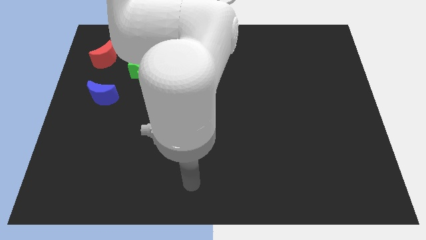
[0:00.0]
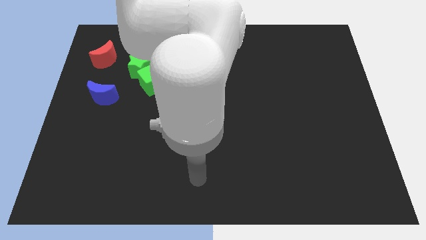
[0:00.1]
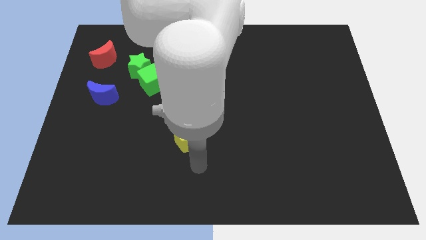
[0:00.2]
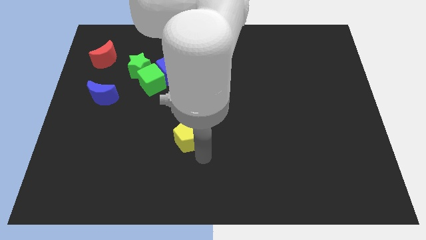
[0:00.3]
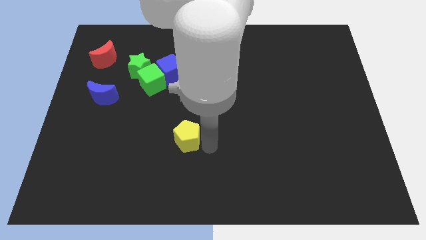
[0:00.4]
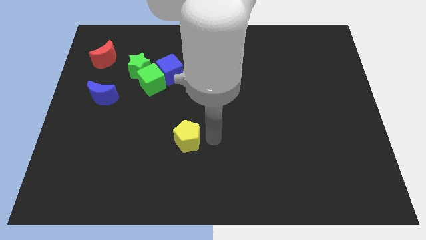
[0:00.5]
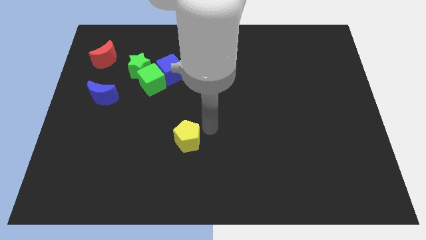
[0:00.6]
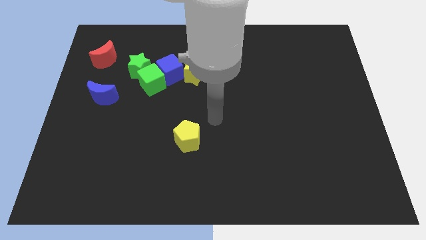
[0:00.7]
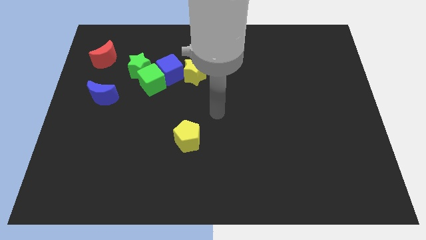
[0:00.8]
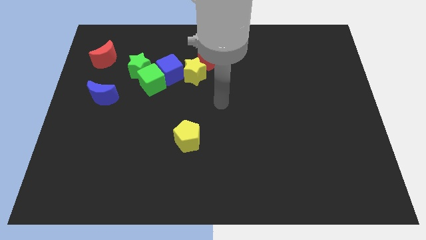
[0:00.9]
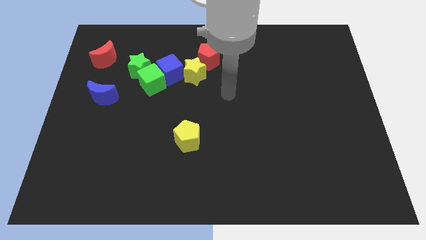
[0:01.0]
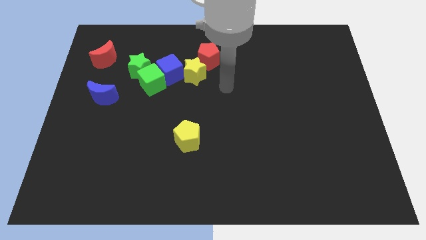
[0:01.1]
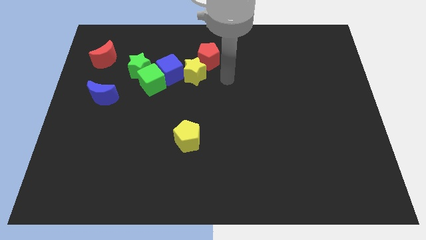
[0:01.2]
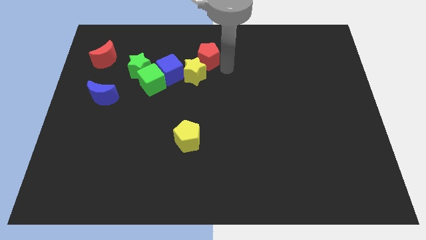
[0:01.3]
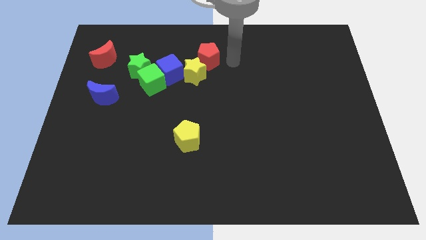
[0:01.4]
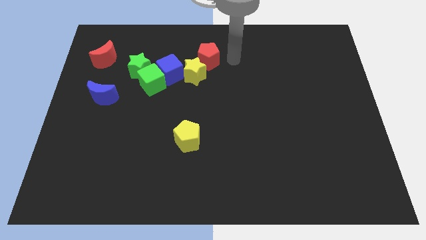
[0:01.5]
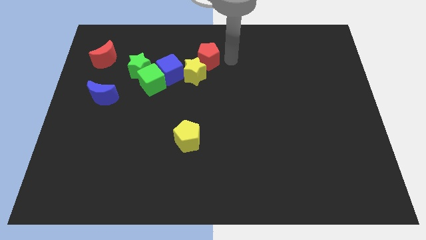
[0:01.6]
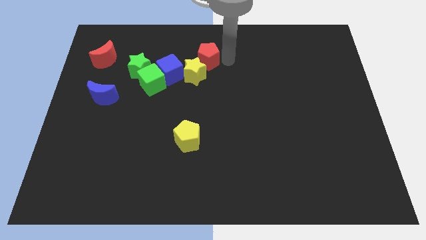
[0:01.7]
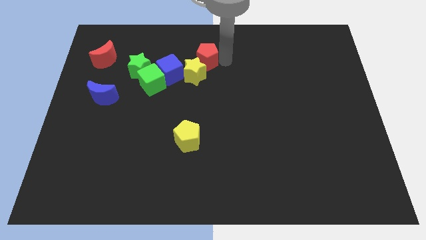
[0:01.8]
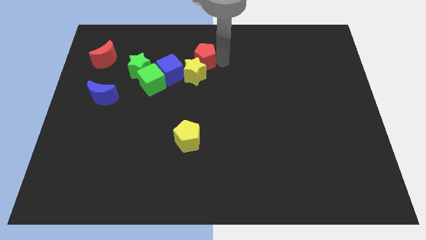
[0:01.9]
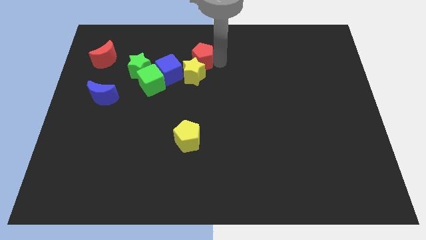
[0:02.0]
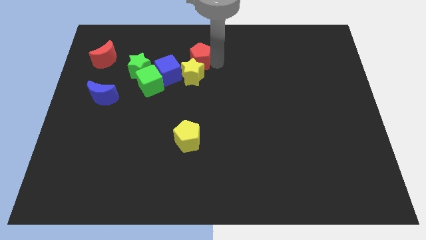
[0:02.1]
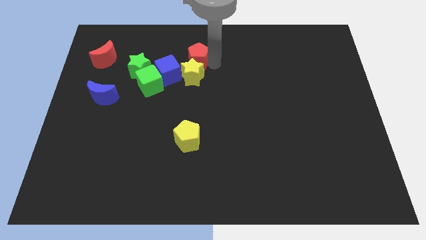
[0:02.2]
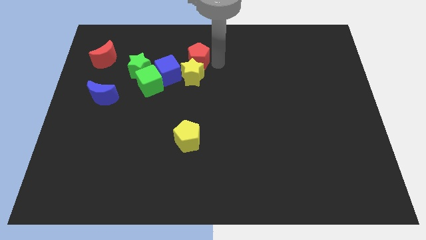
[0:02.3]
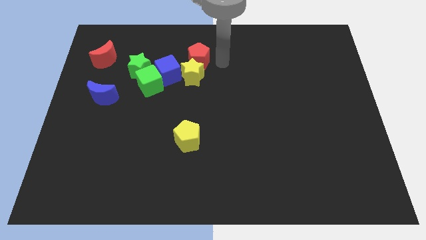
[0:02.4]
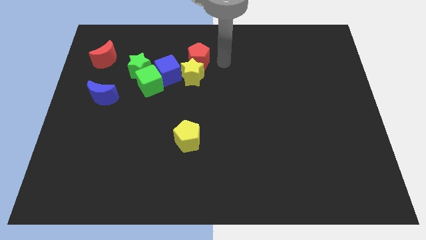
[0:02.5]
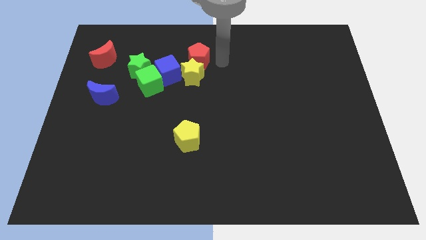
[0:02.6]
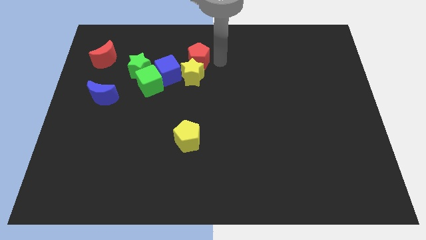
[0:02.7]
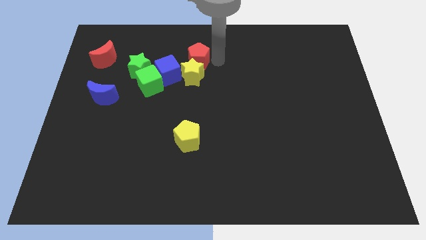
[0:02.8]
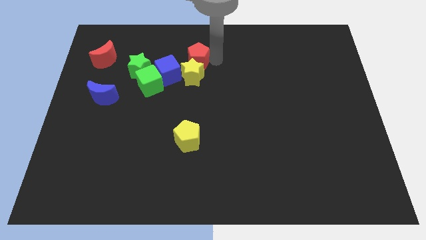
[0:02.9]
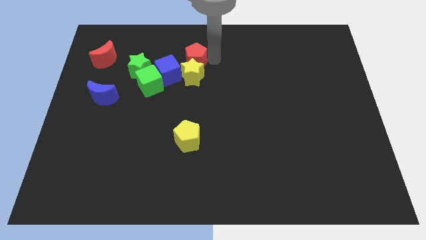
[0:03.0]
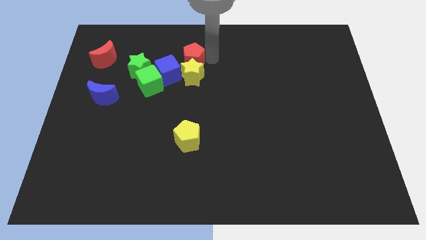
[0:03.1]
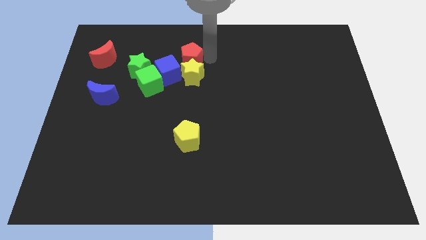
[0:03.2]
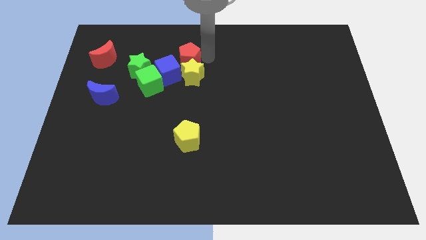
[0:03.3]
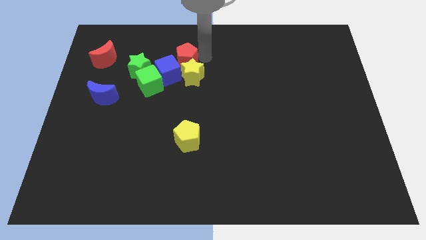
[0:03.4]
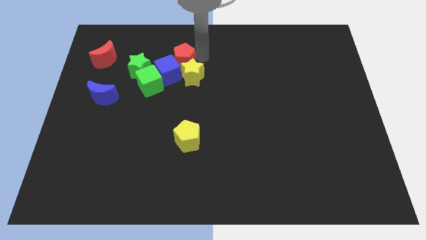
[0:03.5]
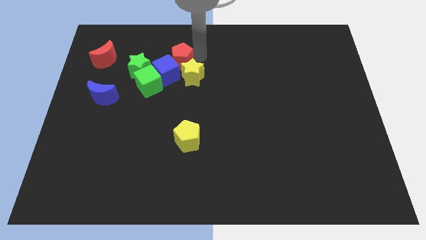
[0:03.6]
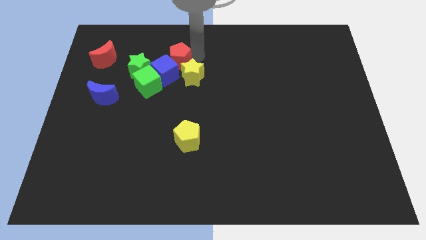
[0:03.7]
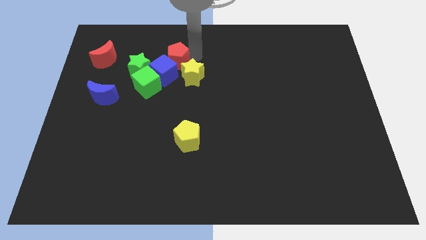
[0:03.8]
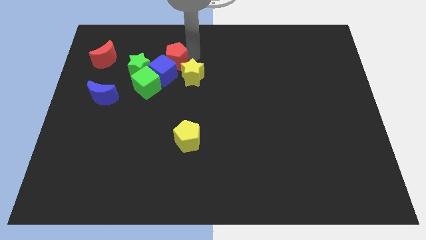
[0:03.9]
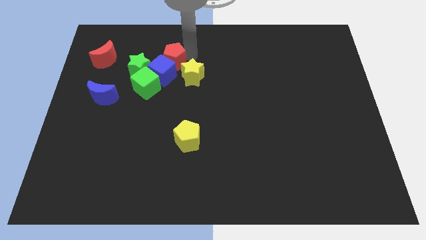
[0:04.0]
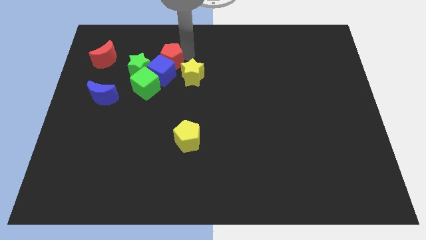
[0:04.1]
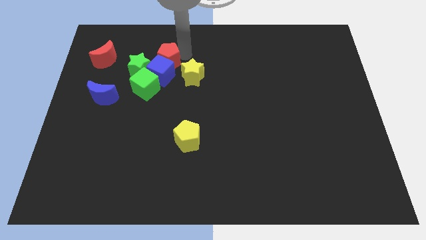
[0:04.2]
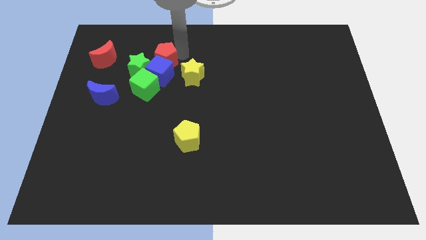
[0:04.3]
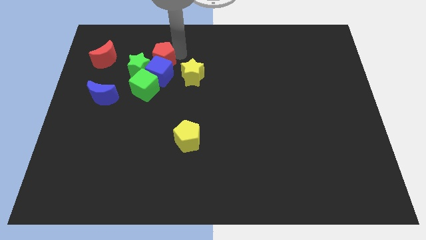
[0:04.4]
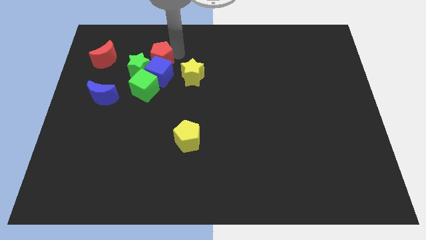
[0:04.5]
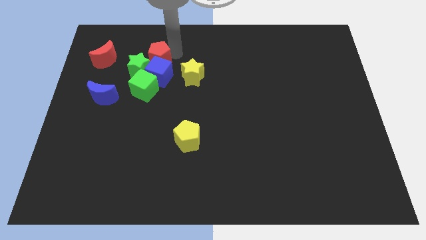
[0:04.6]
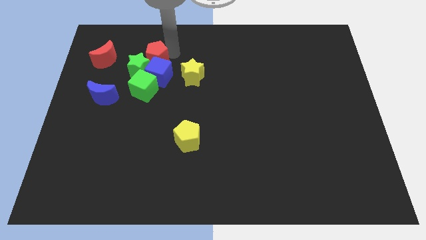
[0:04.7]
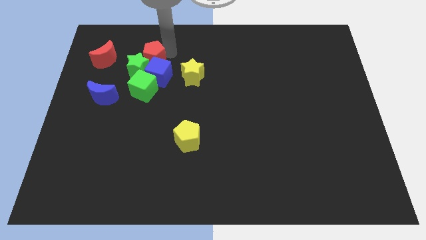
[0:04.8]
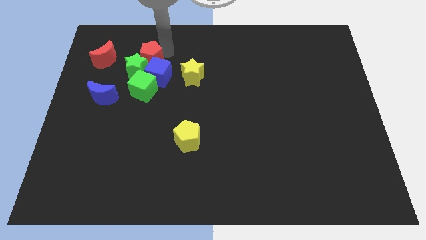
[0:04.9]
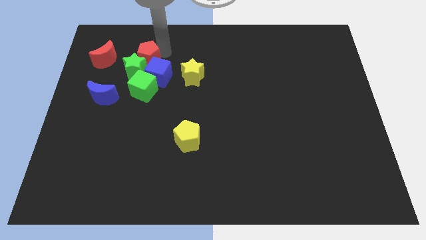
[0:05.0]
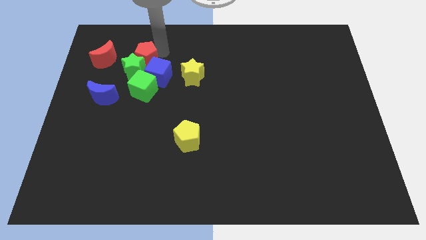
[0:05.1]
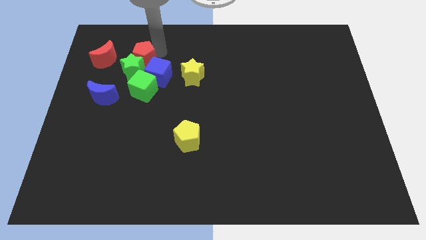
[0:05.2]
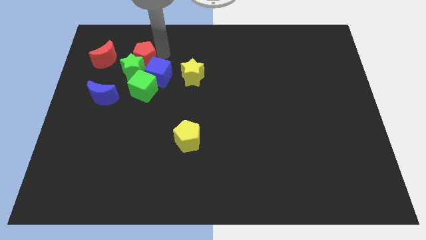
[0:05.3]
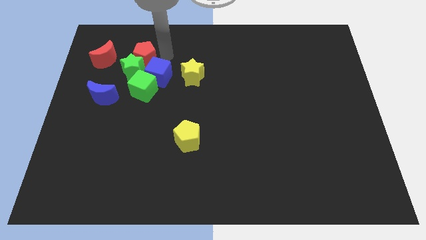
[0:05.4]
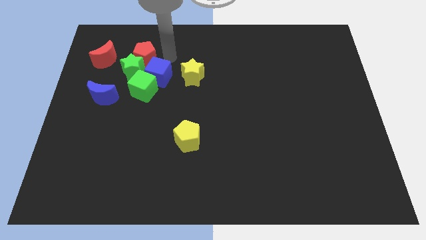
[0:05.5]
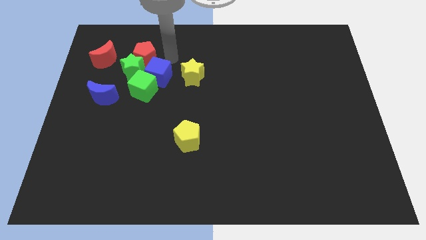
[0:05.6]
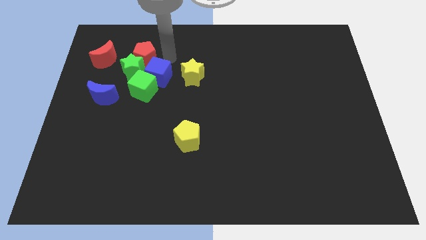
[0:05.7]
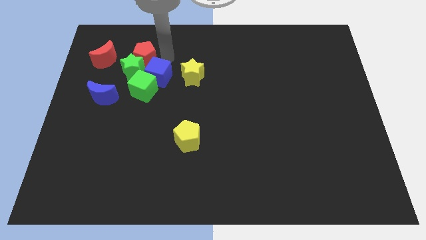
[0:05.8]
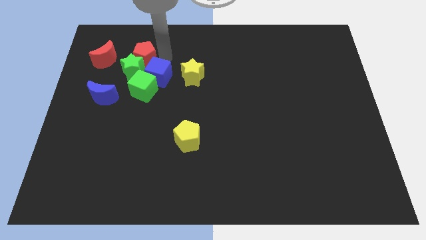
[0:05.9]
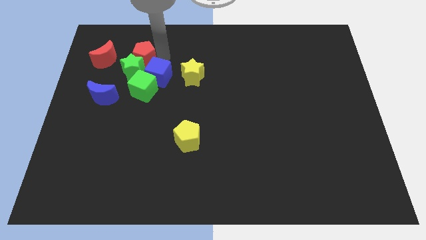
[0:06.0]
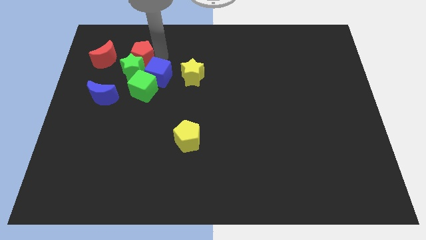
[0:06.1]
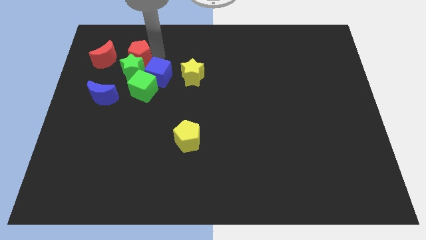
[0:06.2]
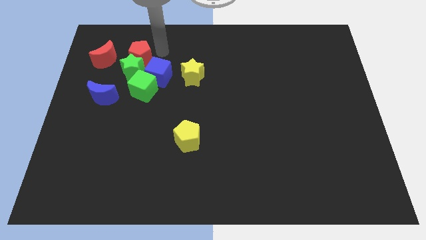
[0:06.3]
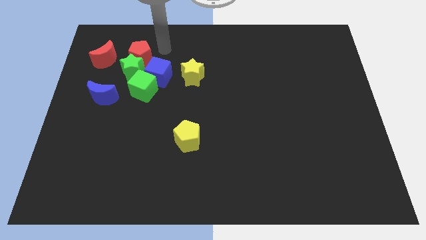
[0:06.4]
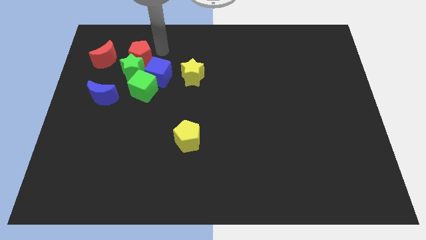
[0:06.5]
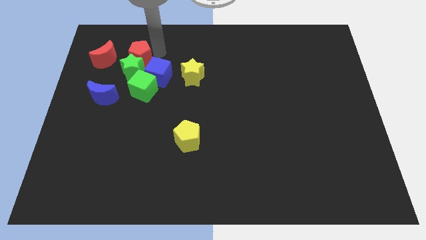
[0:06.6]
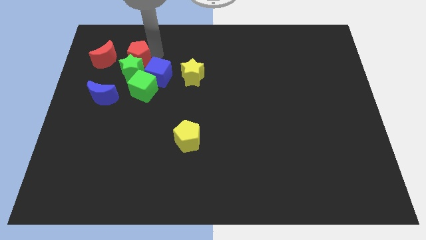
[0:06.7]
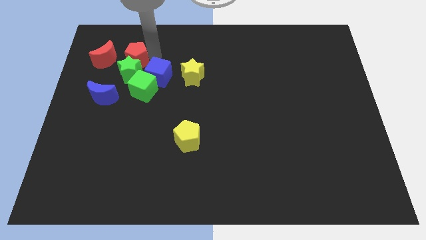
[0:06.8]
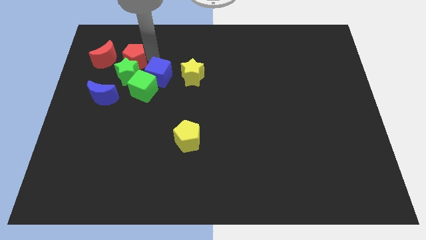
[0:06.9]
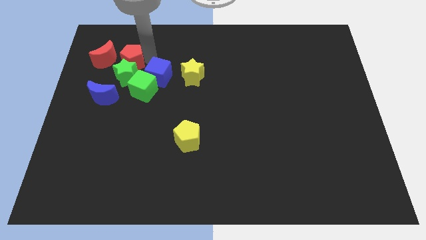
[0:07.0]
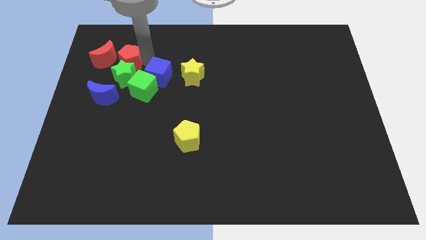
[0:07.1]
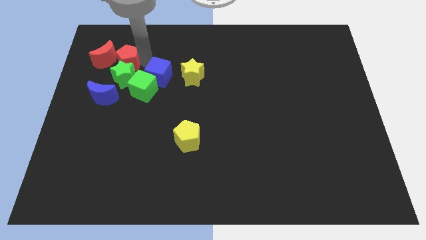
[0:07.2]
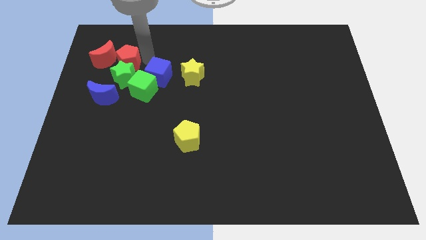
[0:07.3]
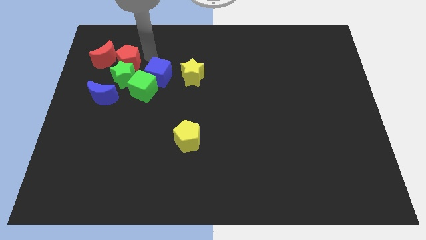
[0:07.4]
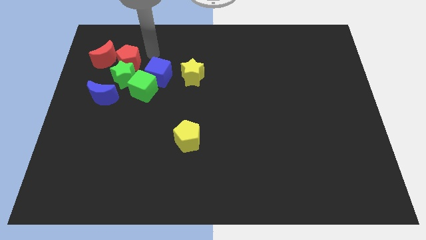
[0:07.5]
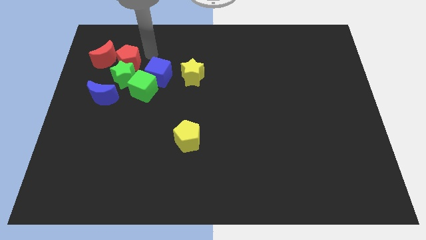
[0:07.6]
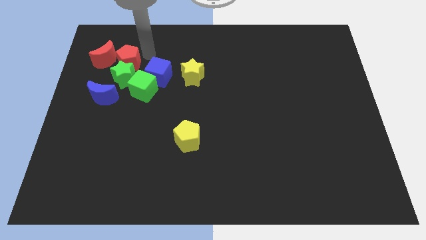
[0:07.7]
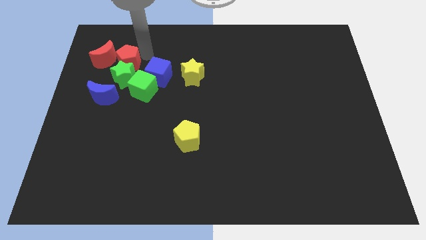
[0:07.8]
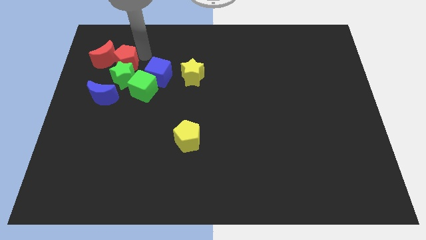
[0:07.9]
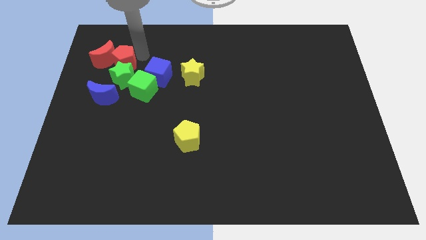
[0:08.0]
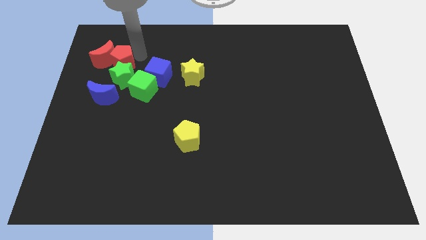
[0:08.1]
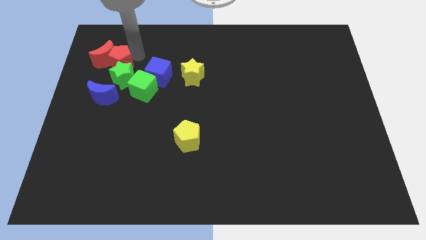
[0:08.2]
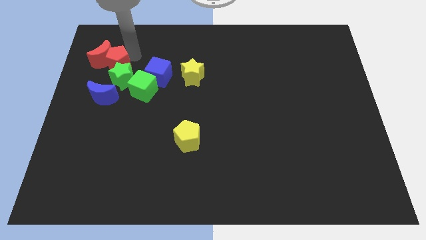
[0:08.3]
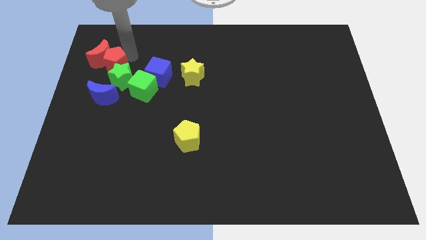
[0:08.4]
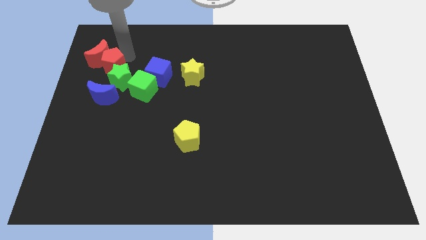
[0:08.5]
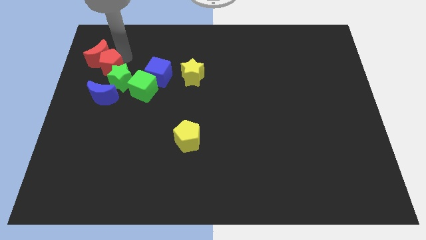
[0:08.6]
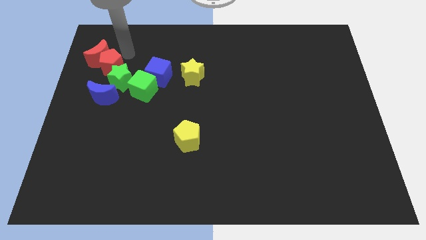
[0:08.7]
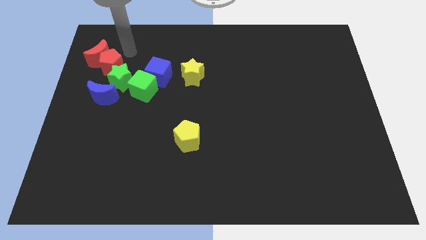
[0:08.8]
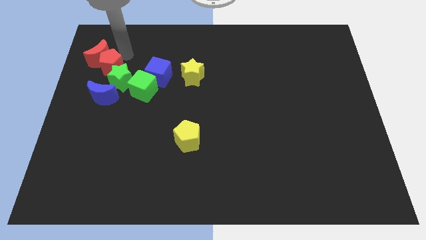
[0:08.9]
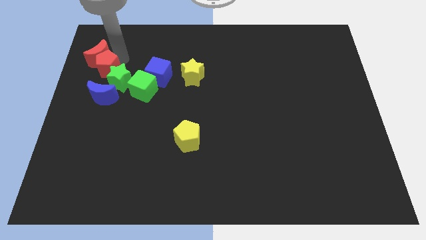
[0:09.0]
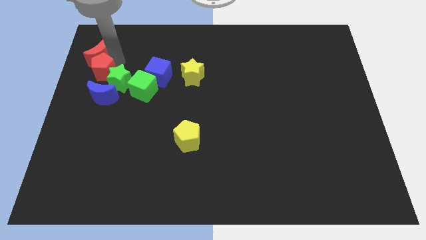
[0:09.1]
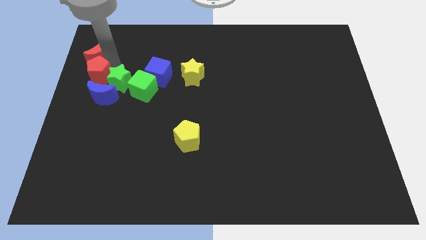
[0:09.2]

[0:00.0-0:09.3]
slide the red pentagon to the center left
